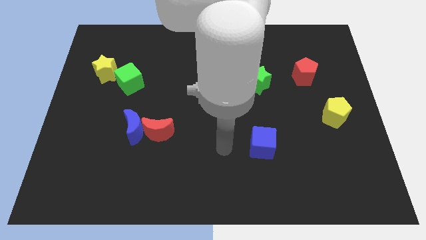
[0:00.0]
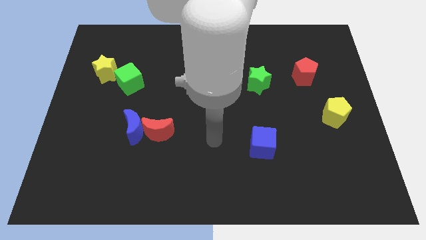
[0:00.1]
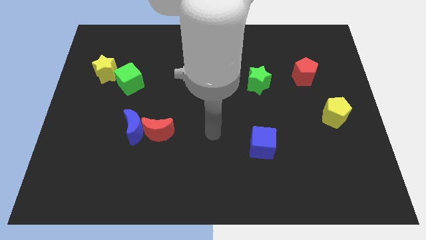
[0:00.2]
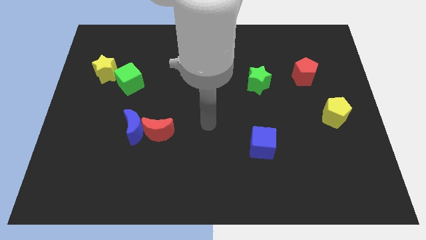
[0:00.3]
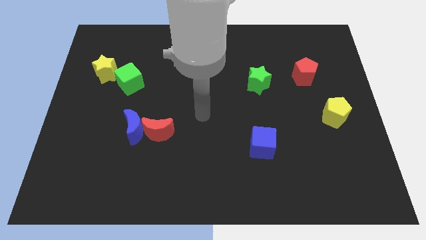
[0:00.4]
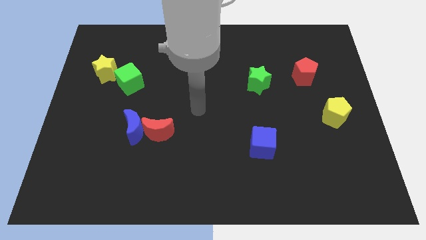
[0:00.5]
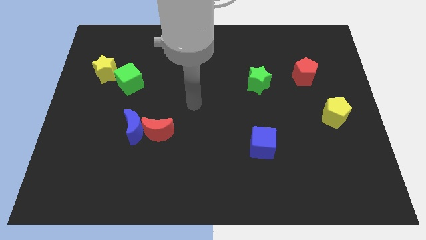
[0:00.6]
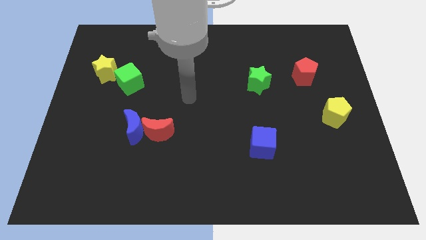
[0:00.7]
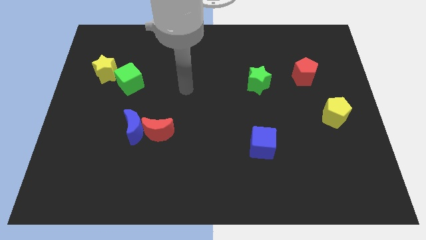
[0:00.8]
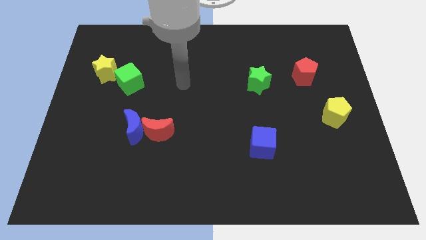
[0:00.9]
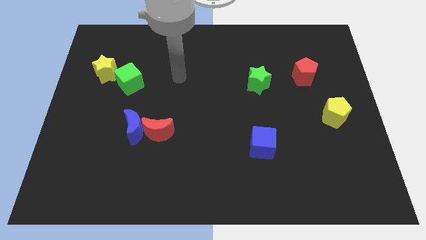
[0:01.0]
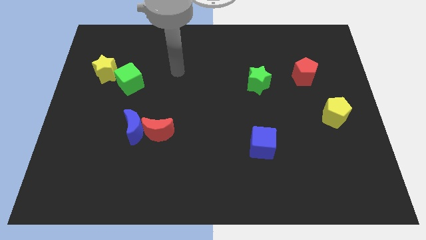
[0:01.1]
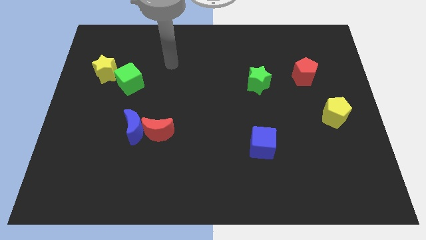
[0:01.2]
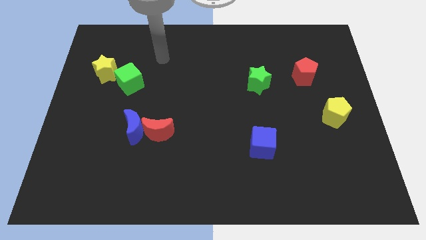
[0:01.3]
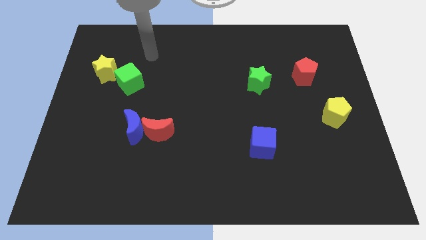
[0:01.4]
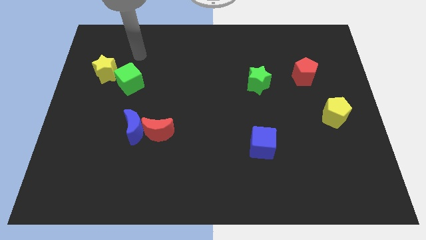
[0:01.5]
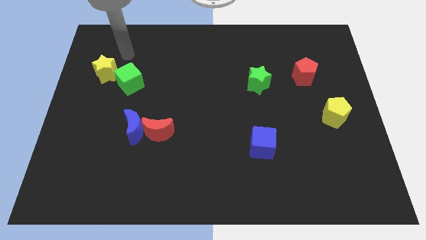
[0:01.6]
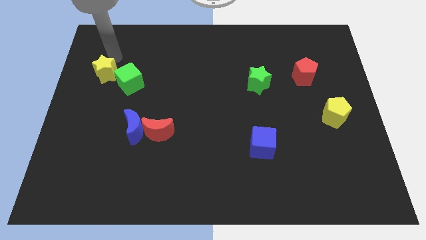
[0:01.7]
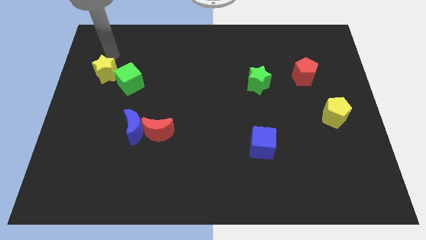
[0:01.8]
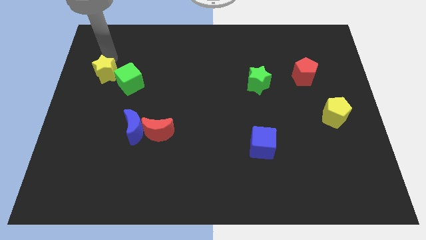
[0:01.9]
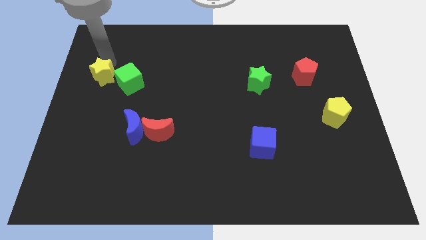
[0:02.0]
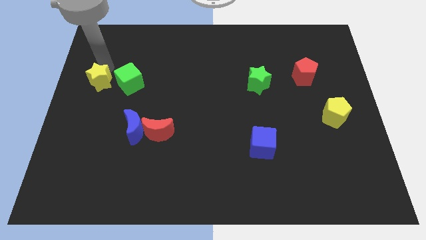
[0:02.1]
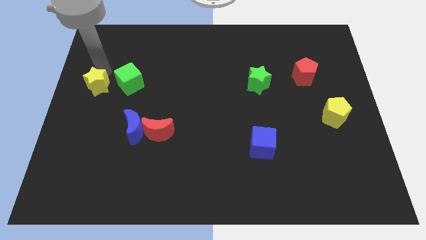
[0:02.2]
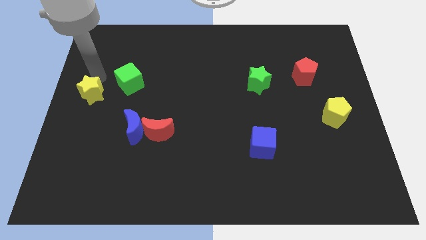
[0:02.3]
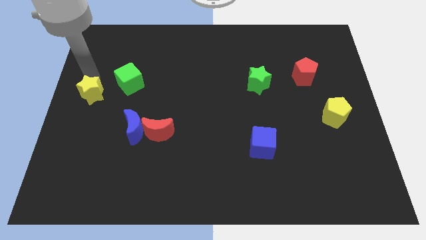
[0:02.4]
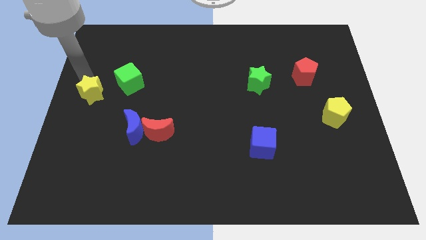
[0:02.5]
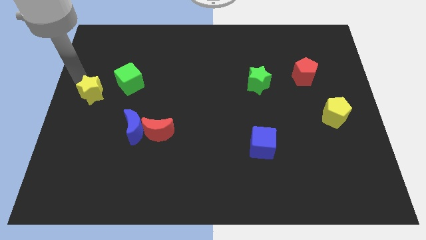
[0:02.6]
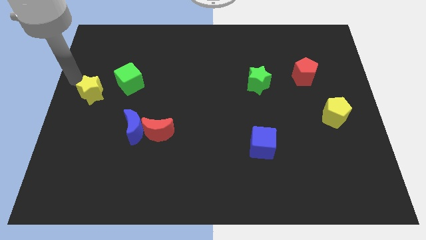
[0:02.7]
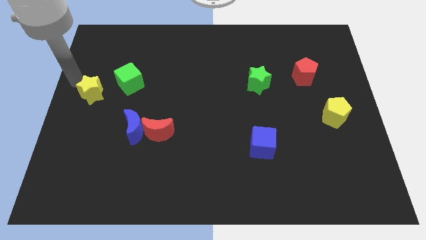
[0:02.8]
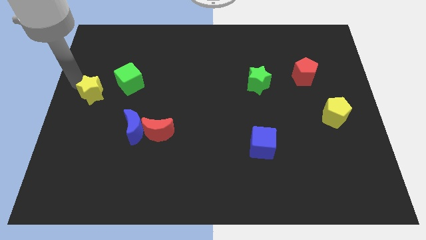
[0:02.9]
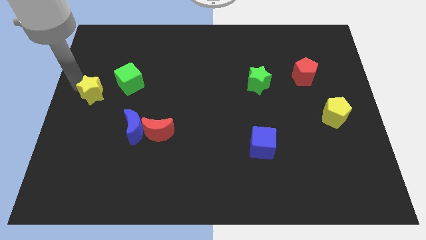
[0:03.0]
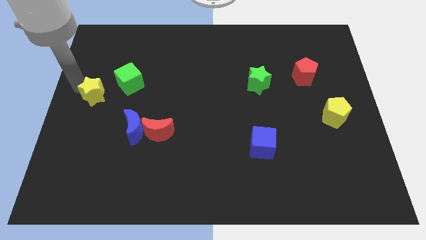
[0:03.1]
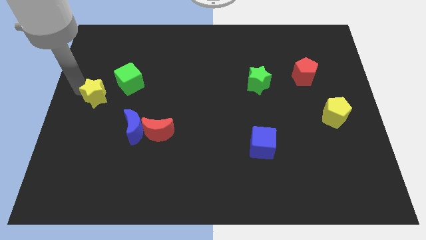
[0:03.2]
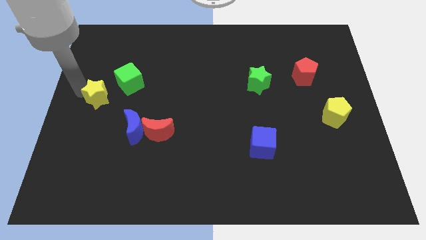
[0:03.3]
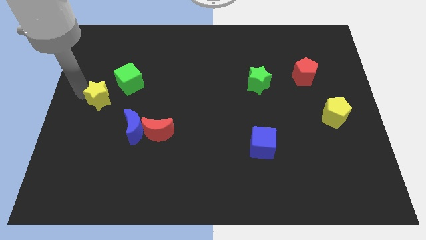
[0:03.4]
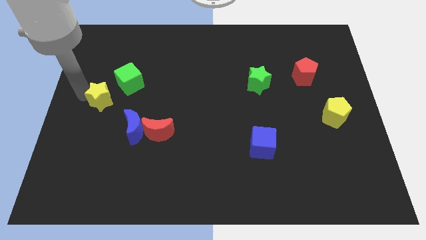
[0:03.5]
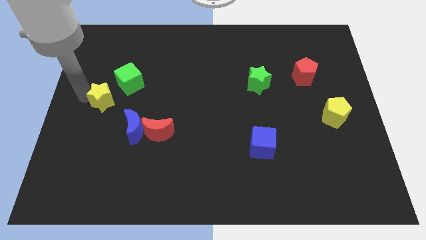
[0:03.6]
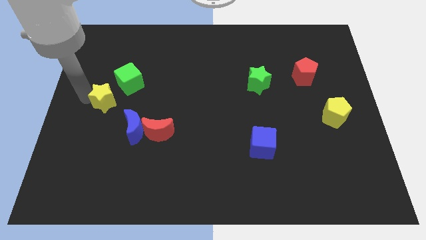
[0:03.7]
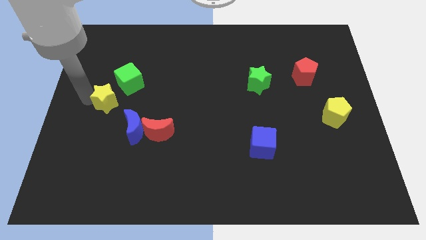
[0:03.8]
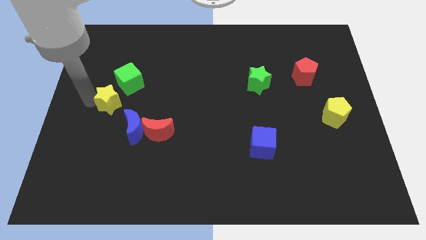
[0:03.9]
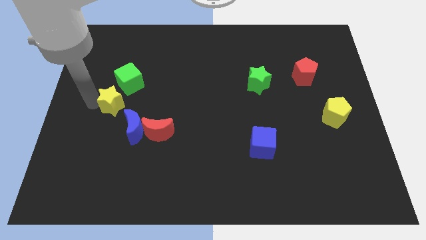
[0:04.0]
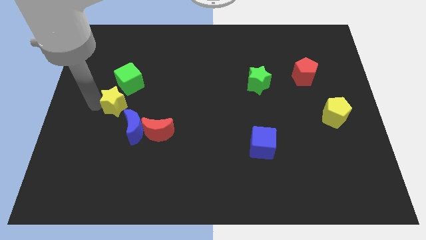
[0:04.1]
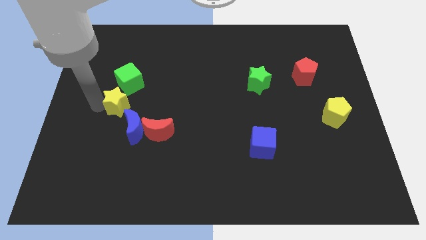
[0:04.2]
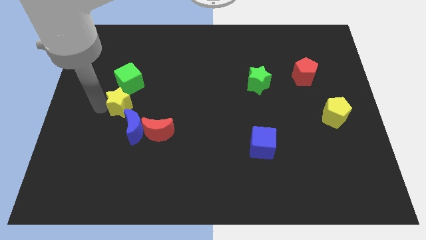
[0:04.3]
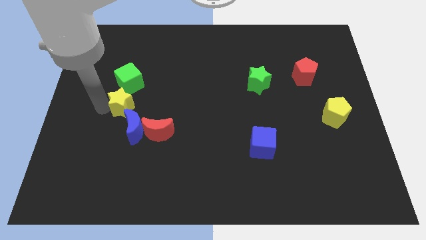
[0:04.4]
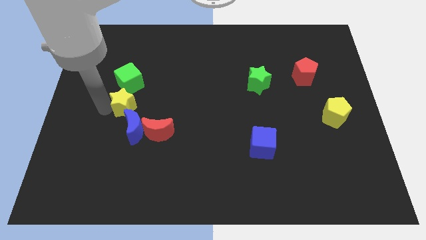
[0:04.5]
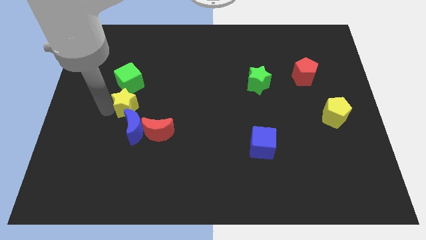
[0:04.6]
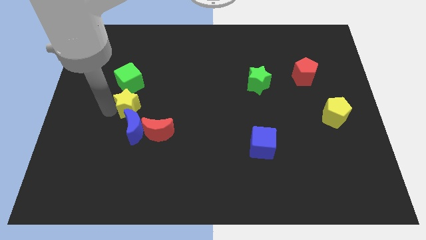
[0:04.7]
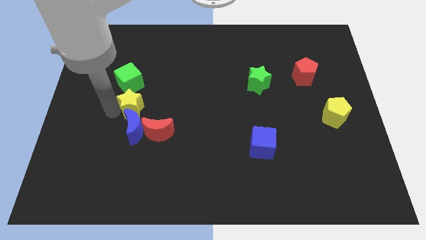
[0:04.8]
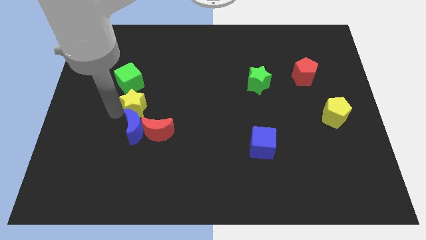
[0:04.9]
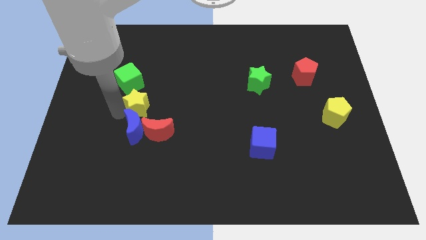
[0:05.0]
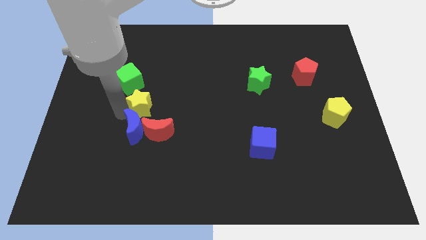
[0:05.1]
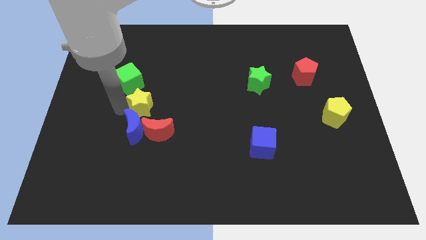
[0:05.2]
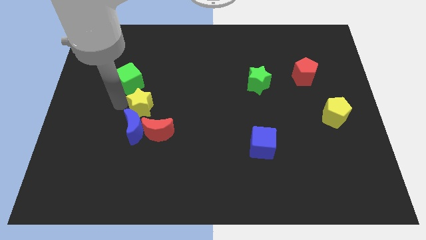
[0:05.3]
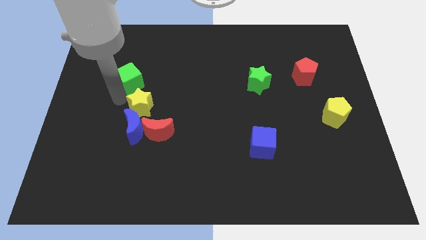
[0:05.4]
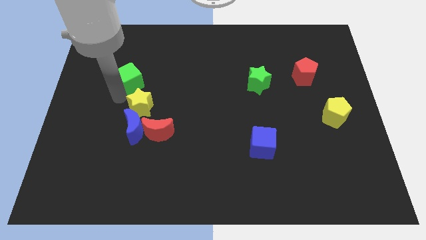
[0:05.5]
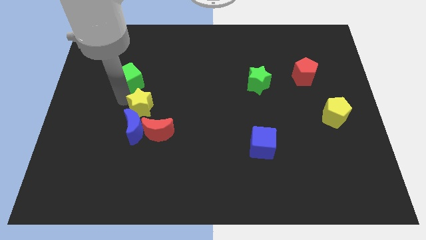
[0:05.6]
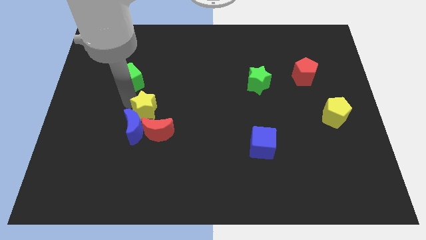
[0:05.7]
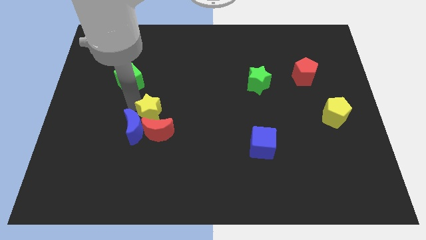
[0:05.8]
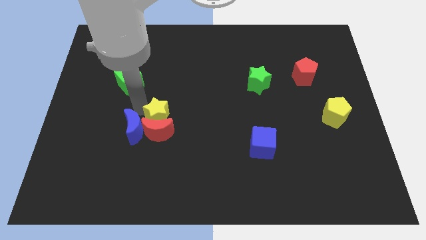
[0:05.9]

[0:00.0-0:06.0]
push the yellow star downwards and then to the right

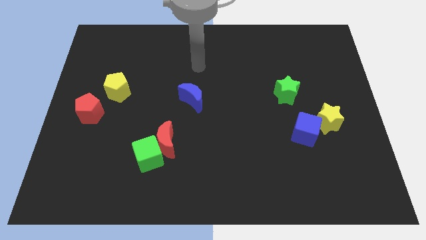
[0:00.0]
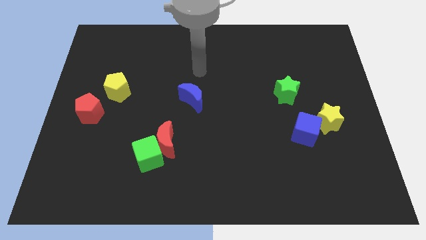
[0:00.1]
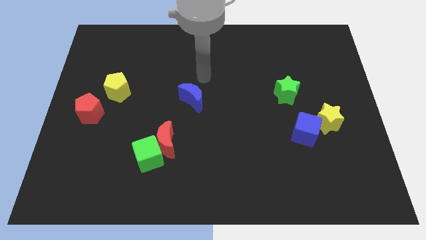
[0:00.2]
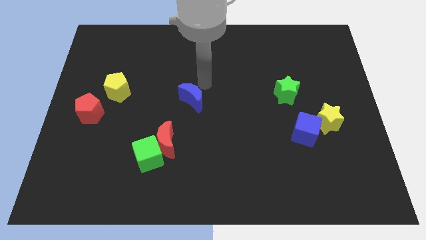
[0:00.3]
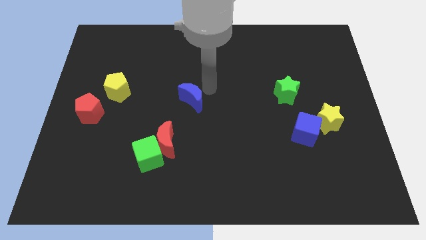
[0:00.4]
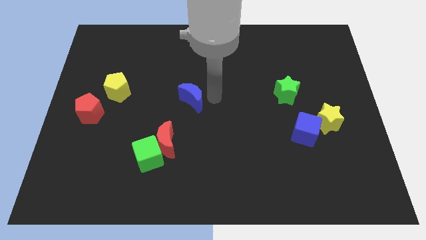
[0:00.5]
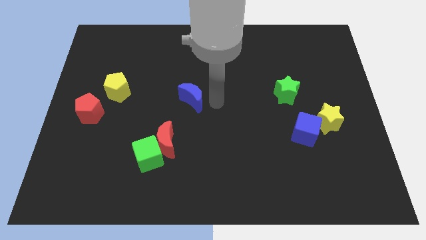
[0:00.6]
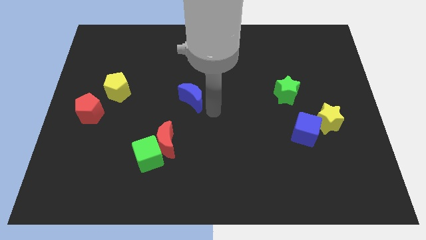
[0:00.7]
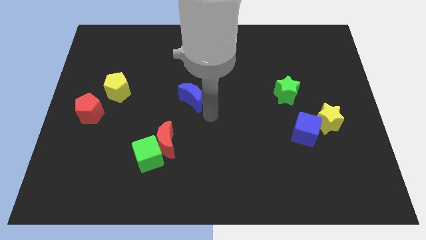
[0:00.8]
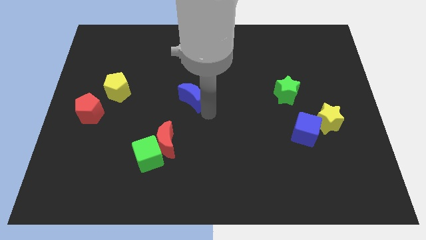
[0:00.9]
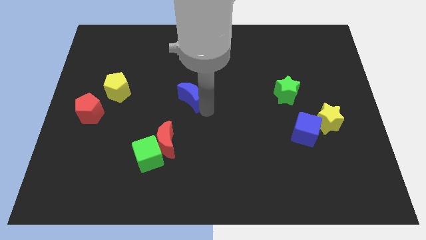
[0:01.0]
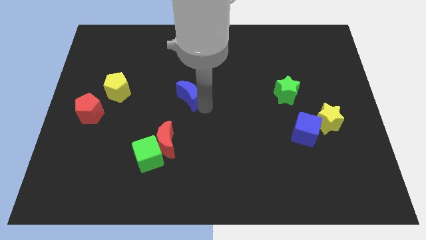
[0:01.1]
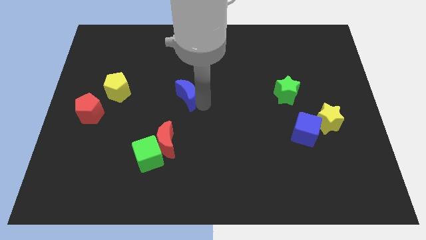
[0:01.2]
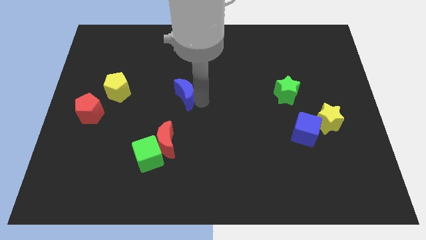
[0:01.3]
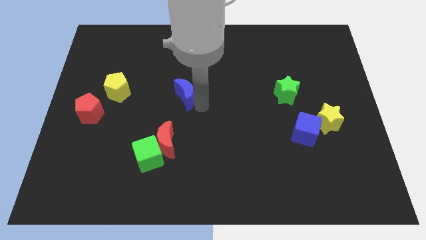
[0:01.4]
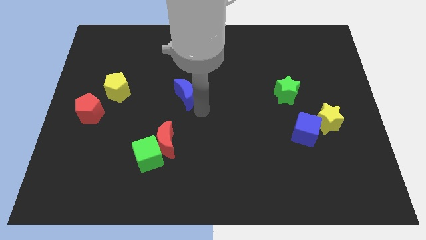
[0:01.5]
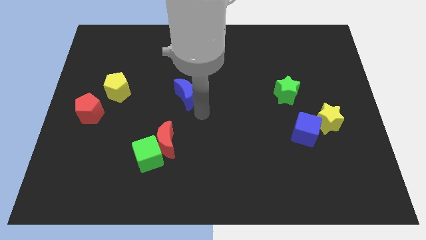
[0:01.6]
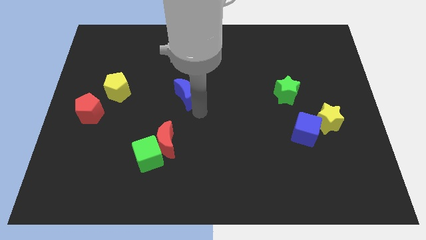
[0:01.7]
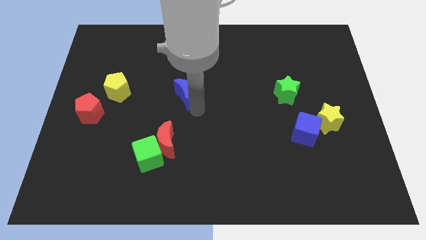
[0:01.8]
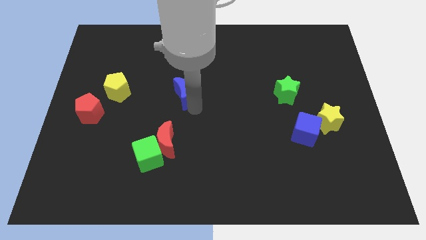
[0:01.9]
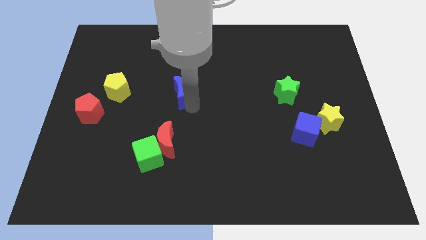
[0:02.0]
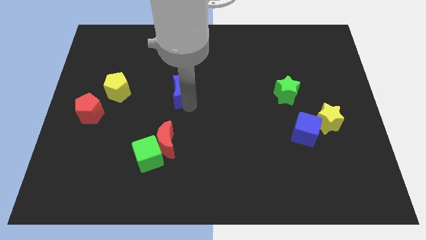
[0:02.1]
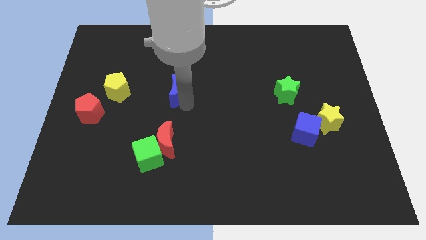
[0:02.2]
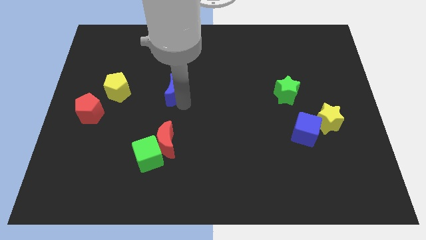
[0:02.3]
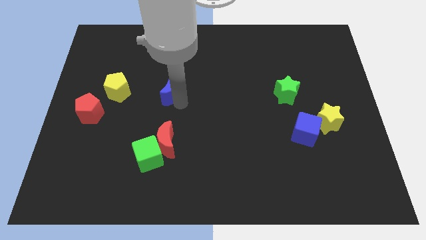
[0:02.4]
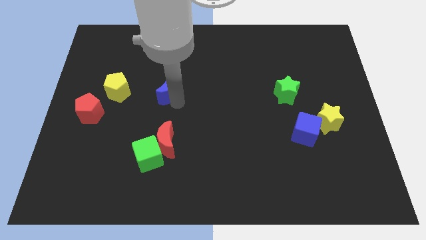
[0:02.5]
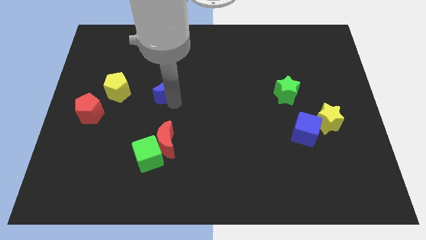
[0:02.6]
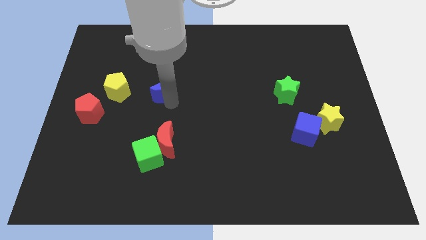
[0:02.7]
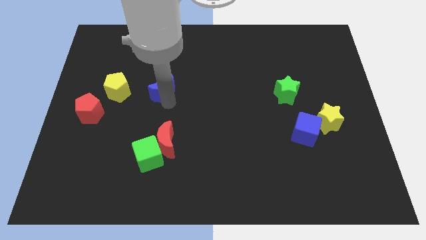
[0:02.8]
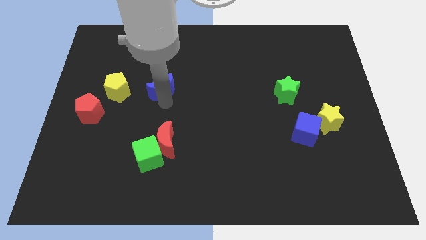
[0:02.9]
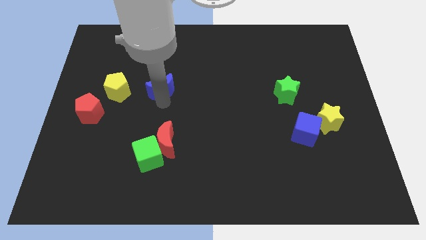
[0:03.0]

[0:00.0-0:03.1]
move the blue moon slightly up and then left
